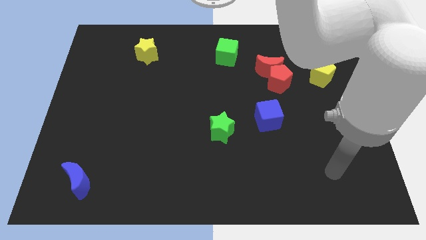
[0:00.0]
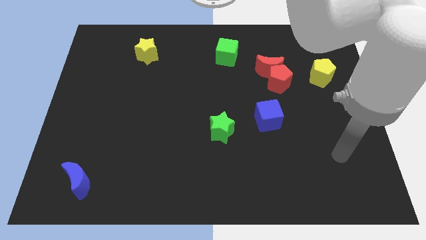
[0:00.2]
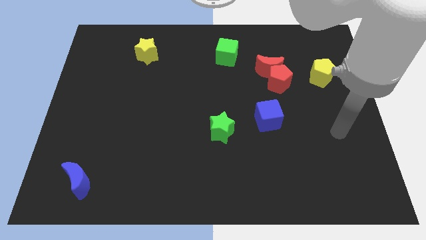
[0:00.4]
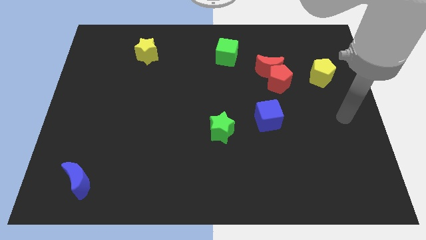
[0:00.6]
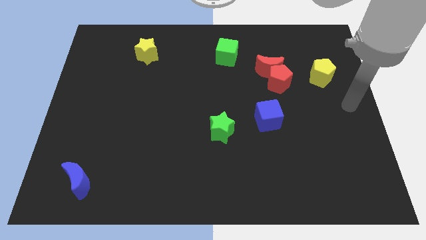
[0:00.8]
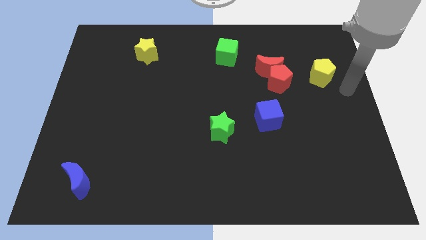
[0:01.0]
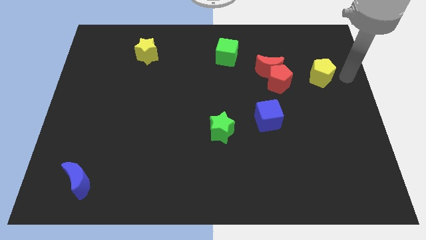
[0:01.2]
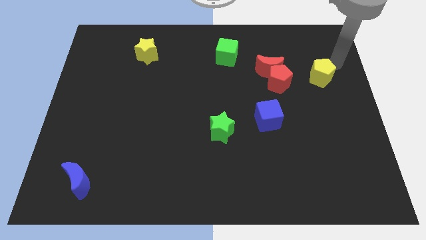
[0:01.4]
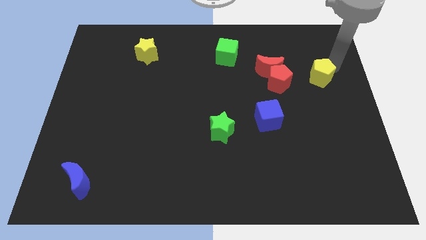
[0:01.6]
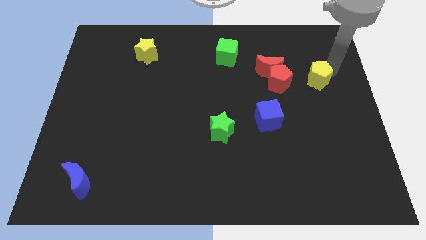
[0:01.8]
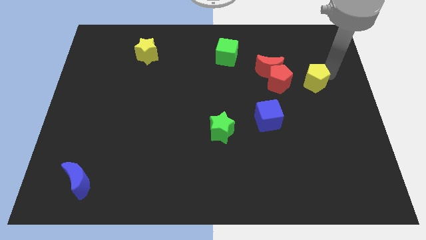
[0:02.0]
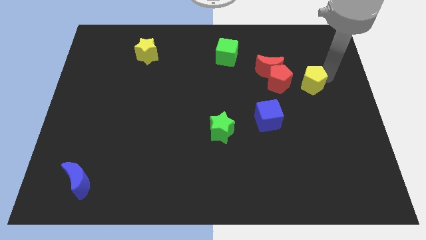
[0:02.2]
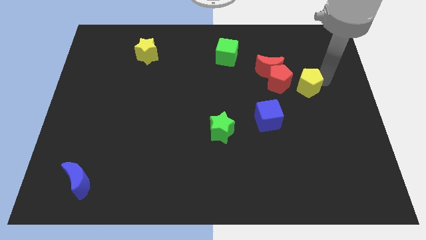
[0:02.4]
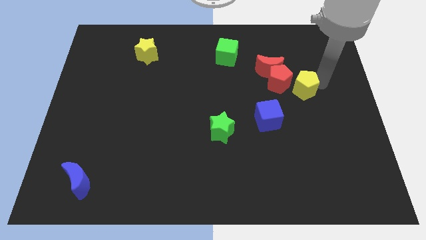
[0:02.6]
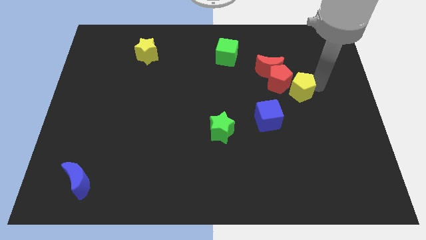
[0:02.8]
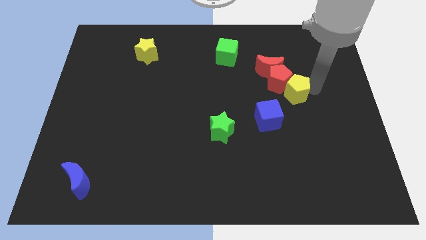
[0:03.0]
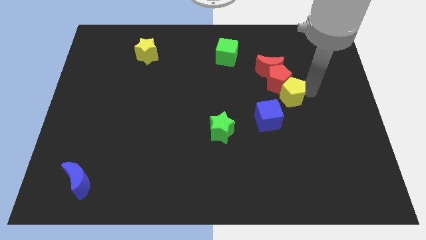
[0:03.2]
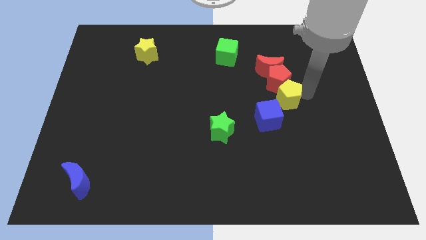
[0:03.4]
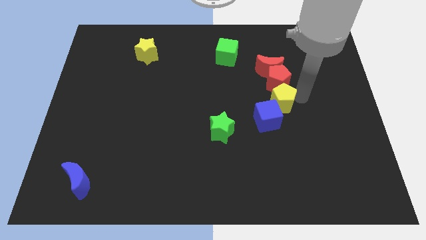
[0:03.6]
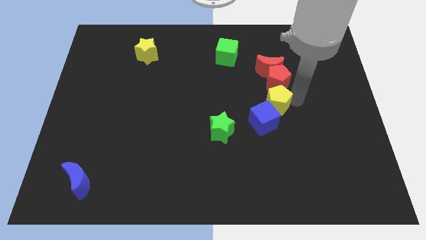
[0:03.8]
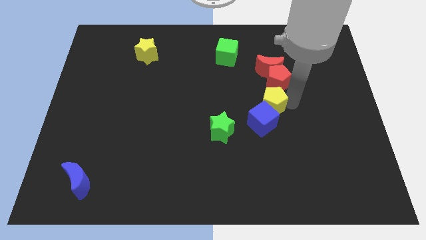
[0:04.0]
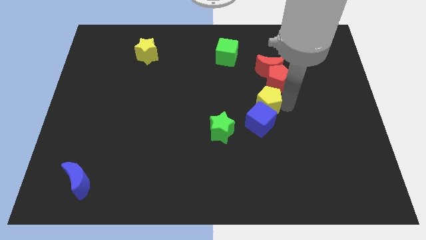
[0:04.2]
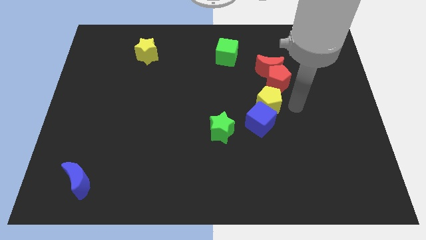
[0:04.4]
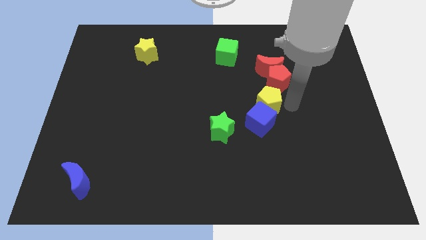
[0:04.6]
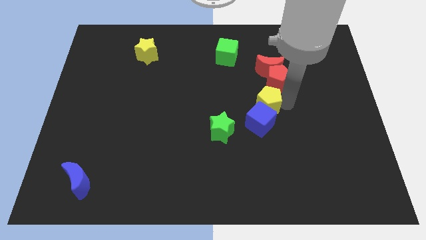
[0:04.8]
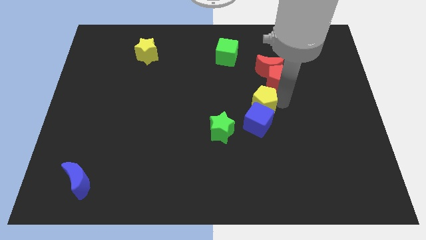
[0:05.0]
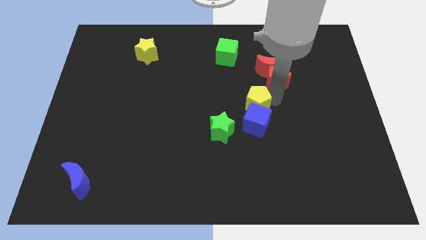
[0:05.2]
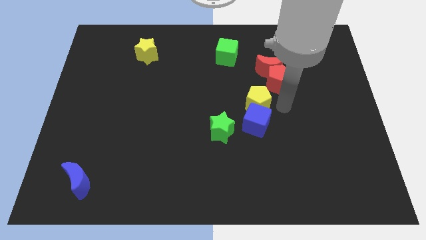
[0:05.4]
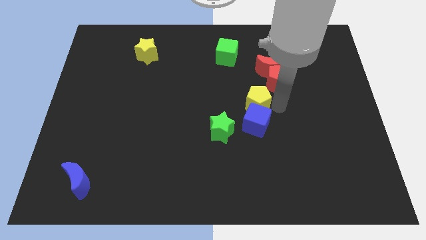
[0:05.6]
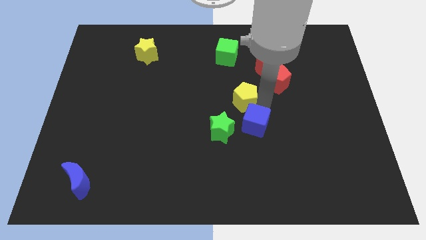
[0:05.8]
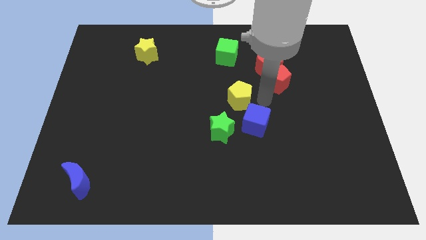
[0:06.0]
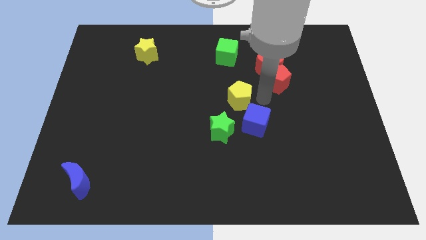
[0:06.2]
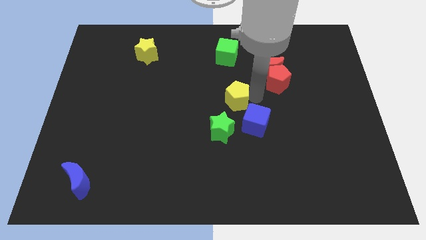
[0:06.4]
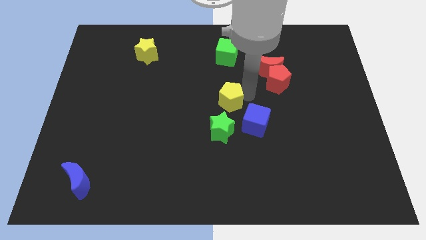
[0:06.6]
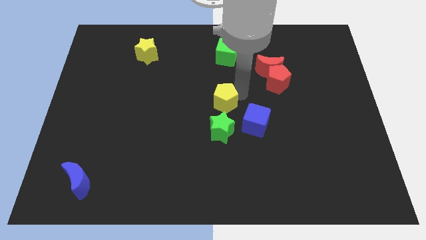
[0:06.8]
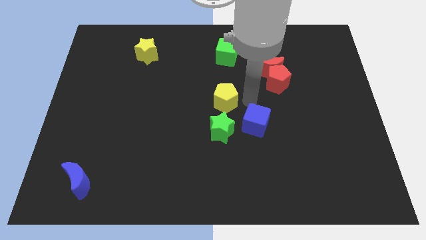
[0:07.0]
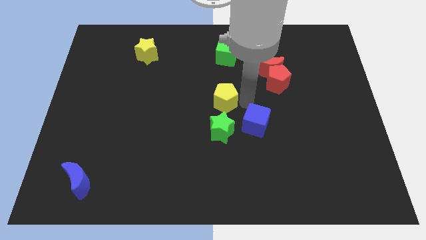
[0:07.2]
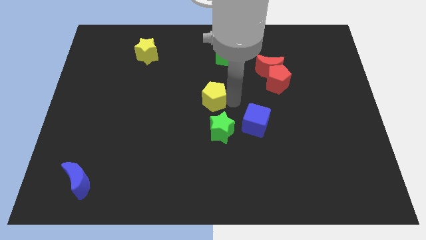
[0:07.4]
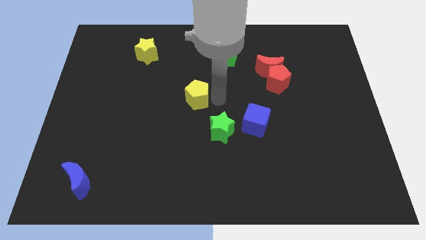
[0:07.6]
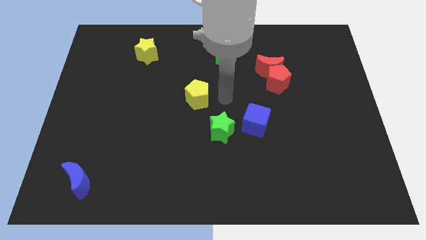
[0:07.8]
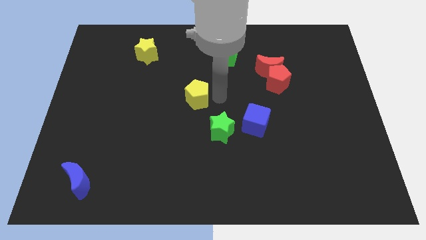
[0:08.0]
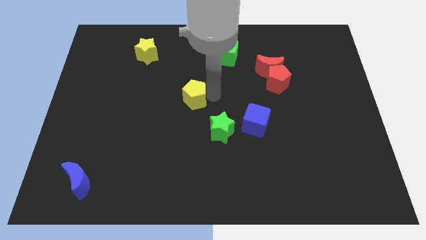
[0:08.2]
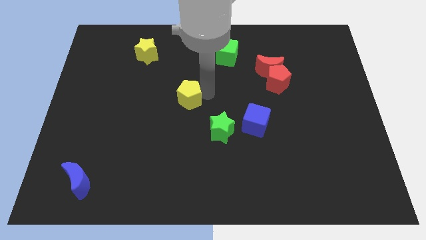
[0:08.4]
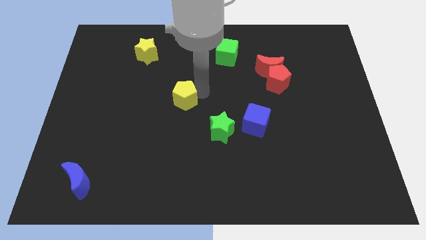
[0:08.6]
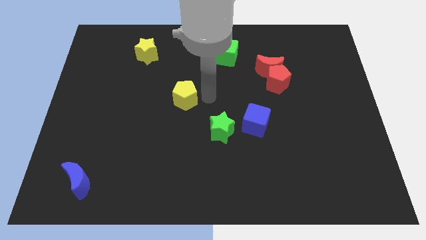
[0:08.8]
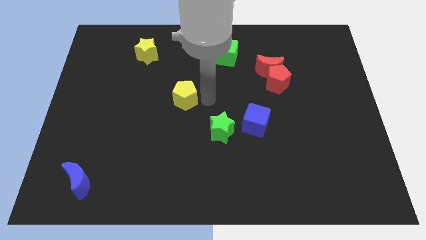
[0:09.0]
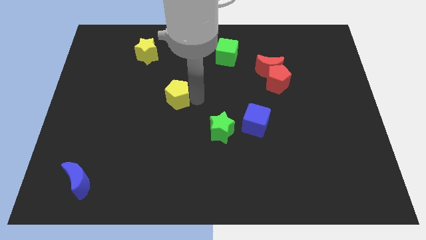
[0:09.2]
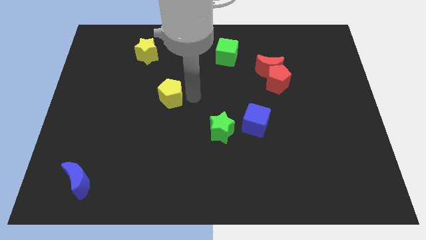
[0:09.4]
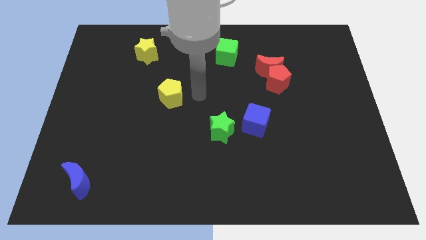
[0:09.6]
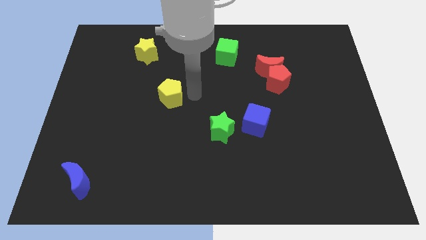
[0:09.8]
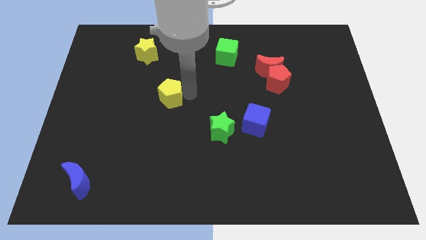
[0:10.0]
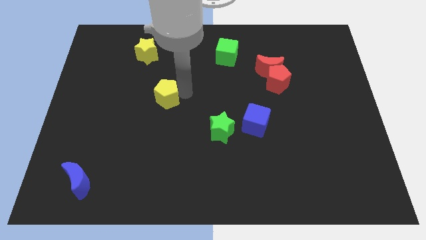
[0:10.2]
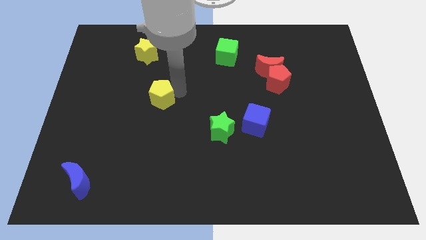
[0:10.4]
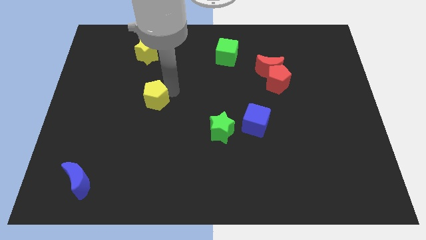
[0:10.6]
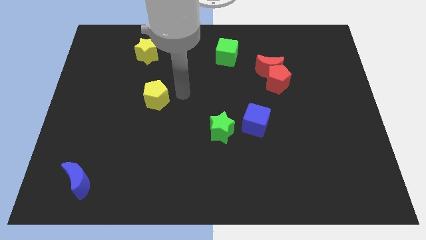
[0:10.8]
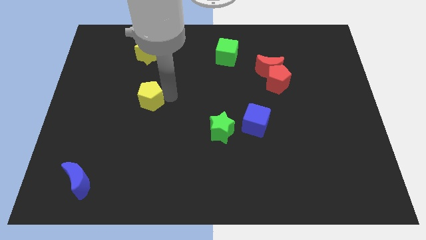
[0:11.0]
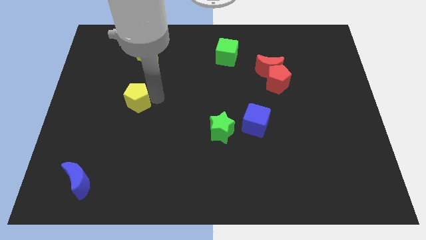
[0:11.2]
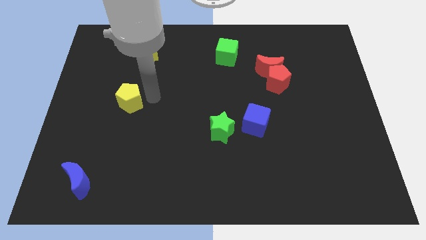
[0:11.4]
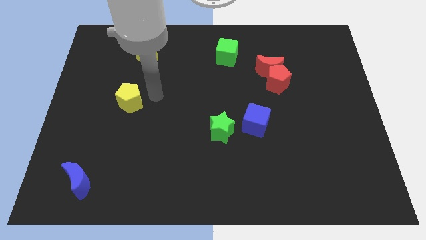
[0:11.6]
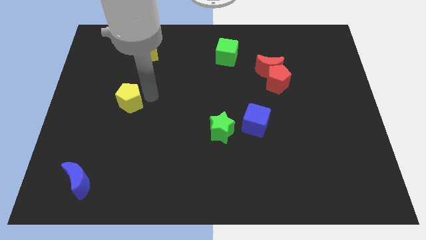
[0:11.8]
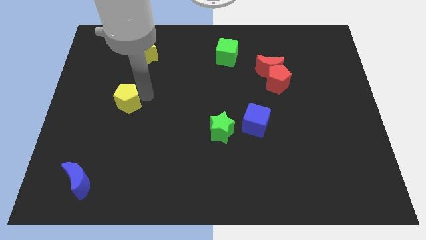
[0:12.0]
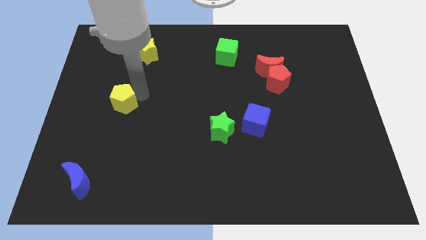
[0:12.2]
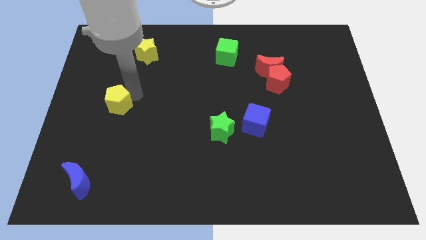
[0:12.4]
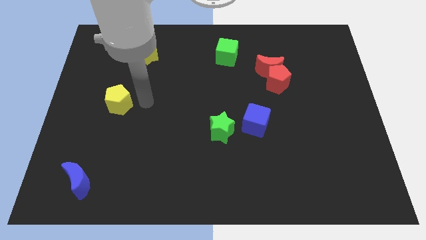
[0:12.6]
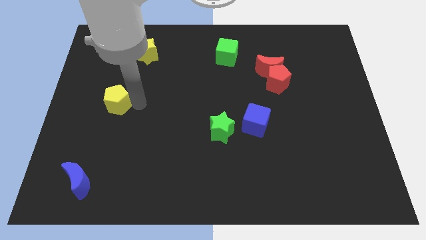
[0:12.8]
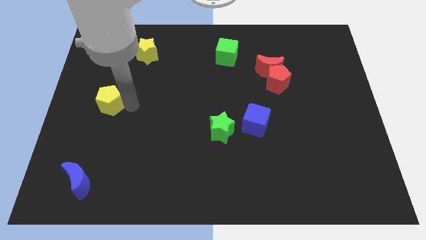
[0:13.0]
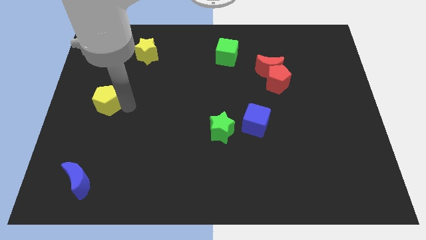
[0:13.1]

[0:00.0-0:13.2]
push the yellow pentagon to the center left
